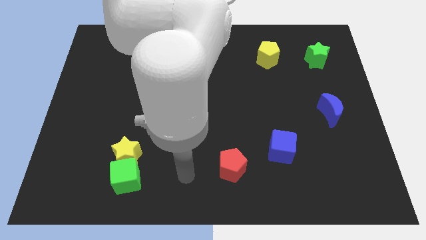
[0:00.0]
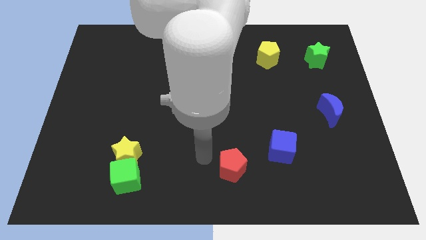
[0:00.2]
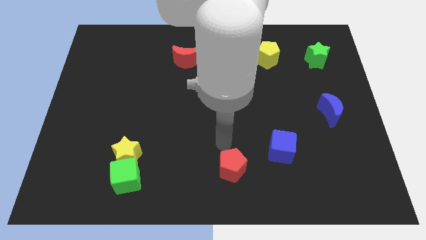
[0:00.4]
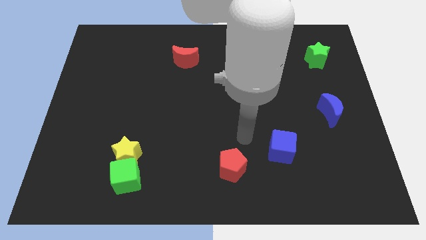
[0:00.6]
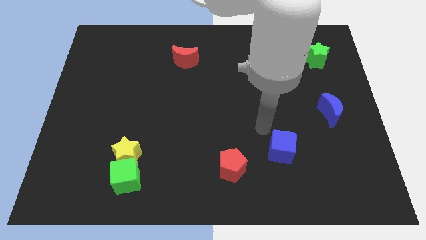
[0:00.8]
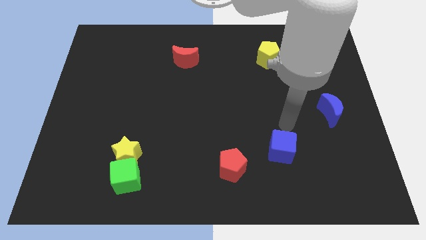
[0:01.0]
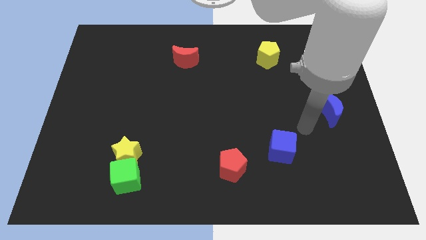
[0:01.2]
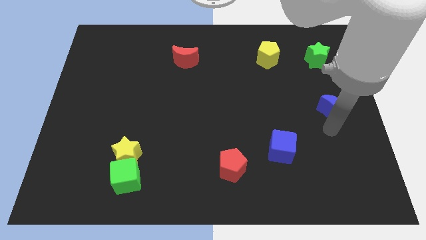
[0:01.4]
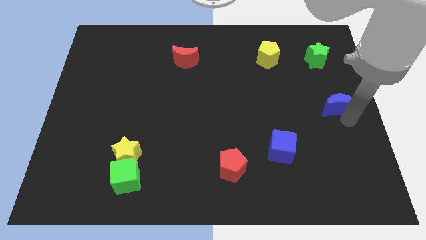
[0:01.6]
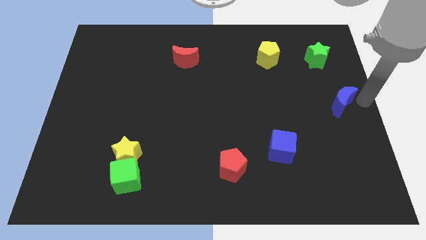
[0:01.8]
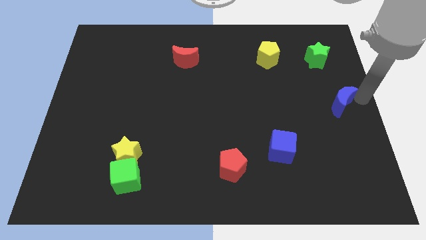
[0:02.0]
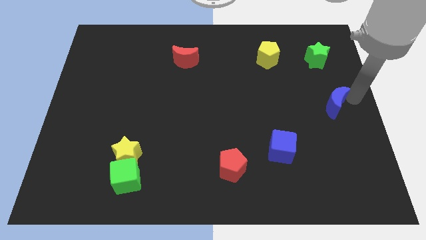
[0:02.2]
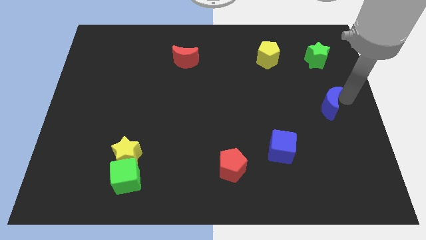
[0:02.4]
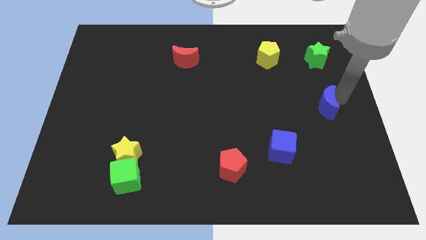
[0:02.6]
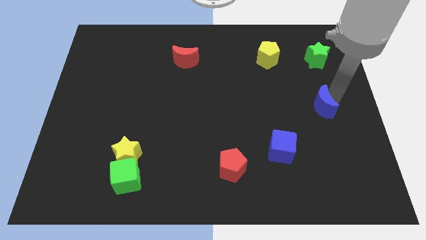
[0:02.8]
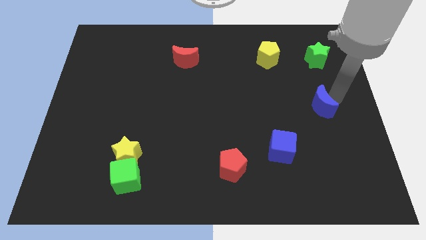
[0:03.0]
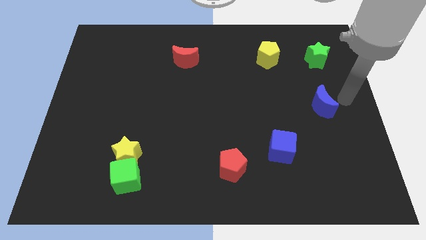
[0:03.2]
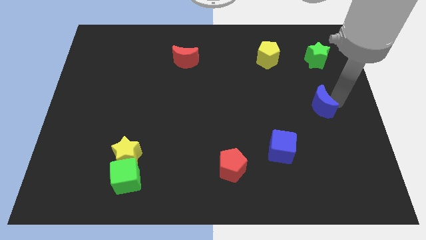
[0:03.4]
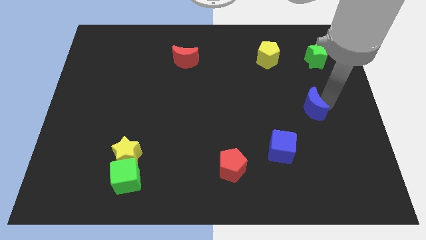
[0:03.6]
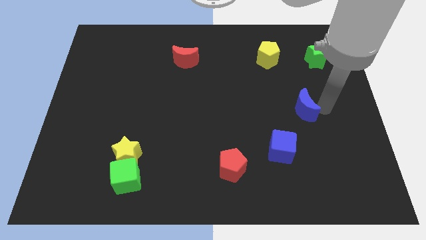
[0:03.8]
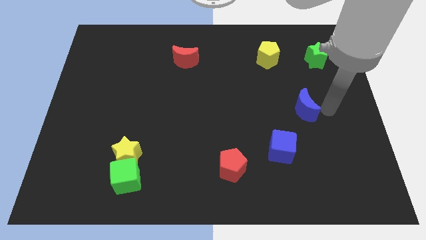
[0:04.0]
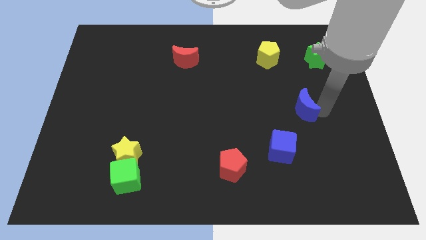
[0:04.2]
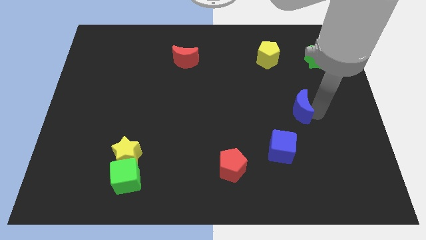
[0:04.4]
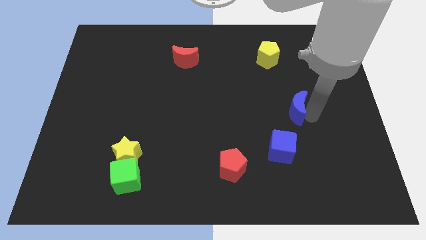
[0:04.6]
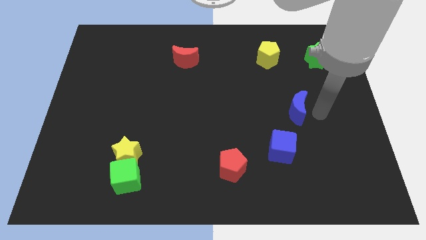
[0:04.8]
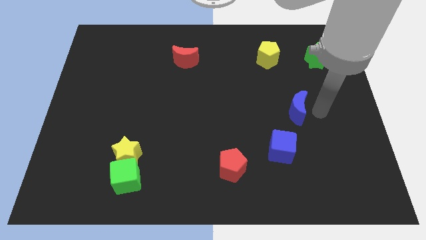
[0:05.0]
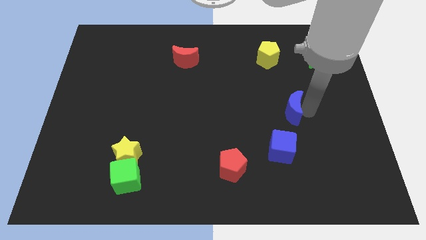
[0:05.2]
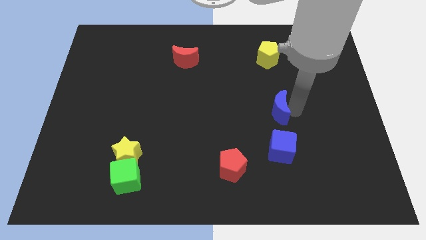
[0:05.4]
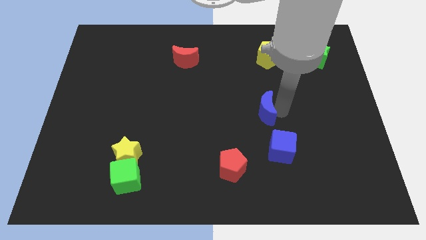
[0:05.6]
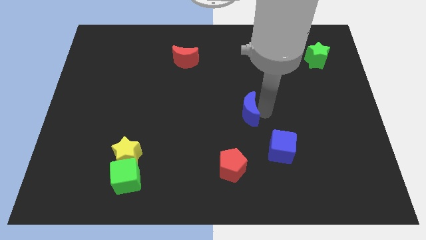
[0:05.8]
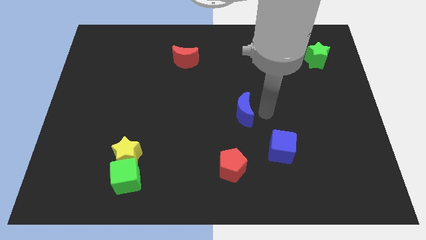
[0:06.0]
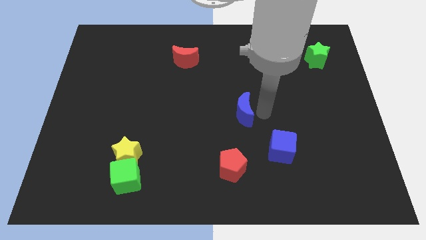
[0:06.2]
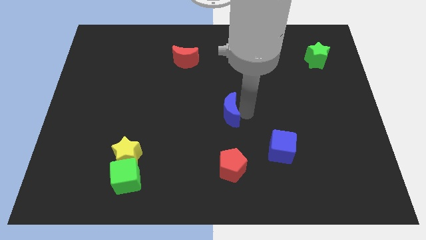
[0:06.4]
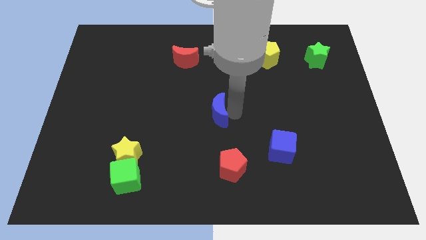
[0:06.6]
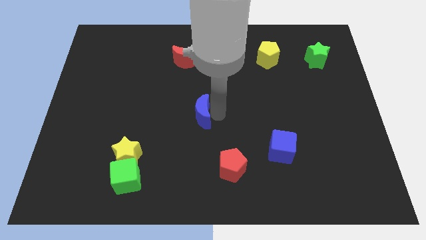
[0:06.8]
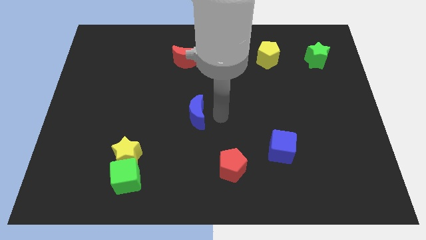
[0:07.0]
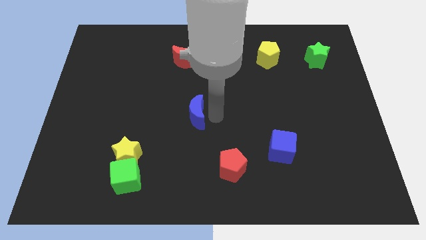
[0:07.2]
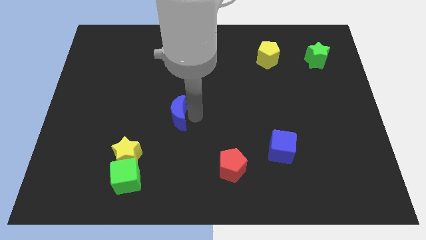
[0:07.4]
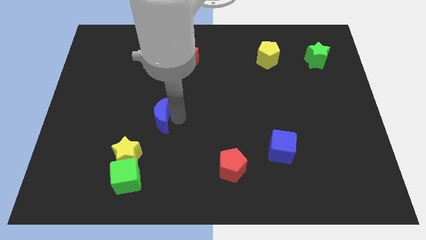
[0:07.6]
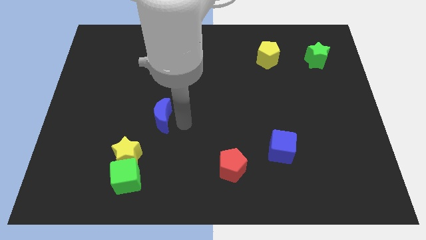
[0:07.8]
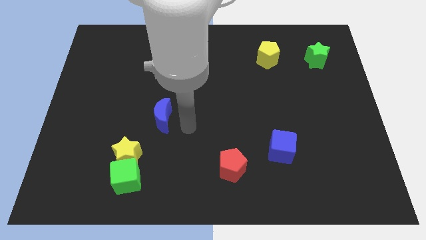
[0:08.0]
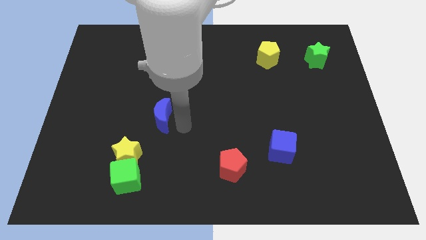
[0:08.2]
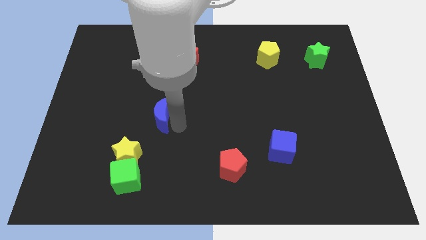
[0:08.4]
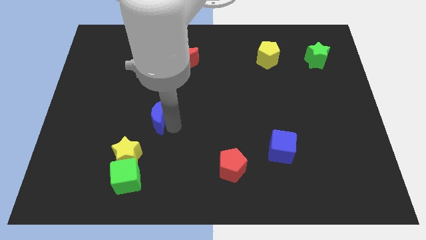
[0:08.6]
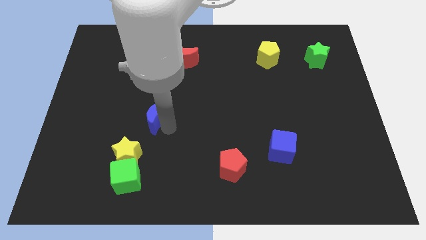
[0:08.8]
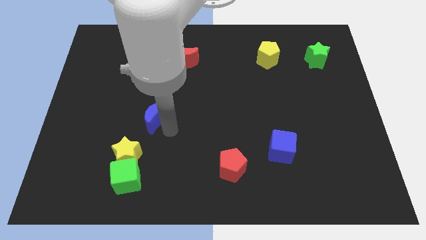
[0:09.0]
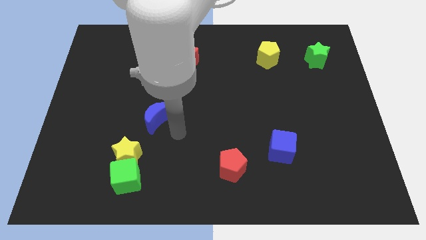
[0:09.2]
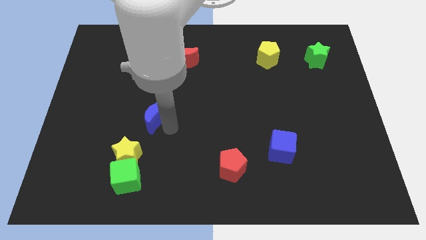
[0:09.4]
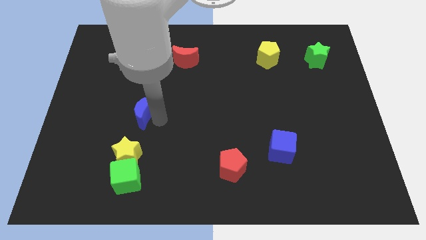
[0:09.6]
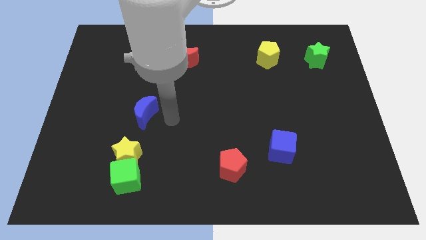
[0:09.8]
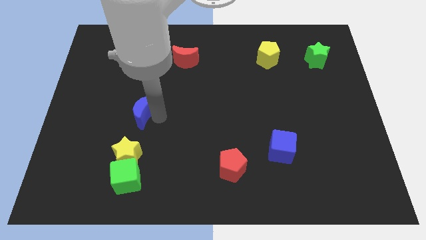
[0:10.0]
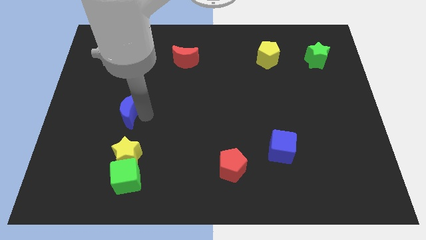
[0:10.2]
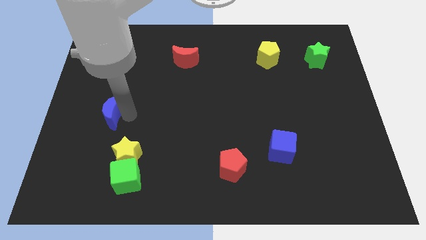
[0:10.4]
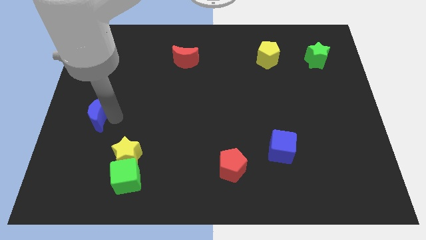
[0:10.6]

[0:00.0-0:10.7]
push the blue moon to the center left

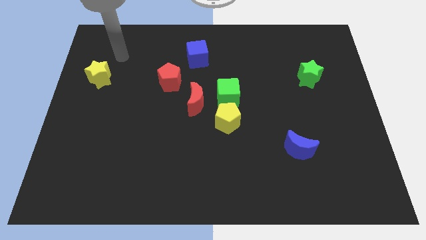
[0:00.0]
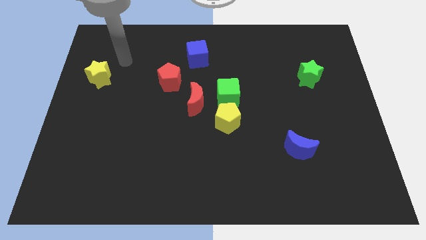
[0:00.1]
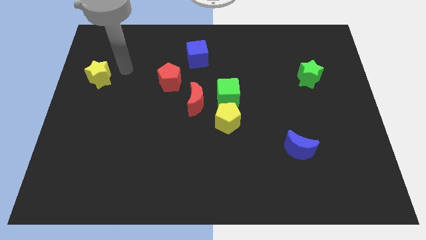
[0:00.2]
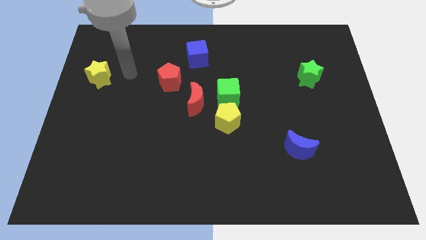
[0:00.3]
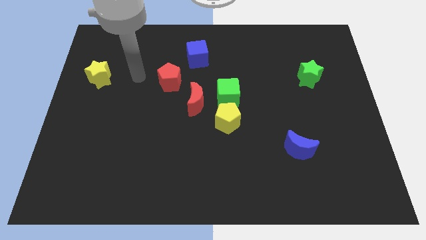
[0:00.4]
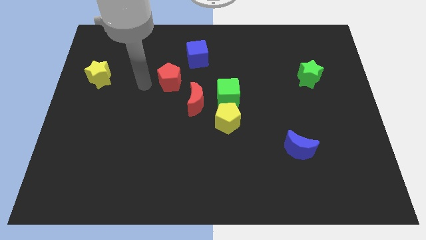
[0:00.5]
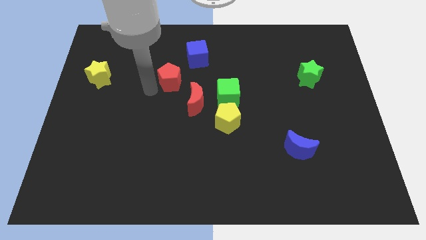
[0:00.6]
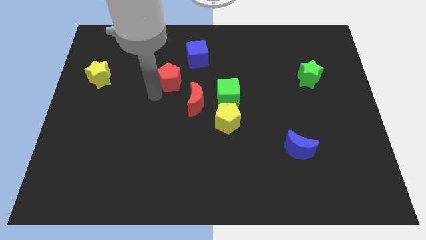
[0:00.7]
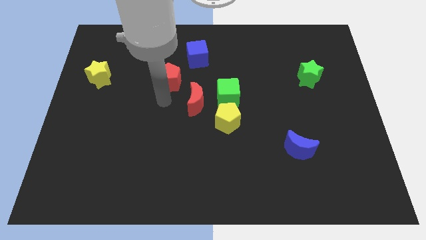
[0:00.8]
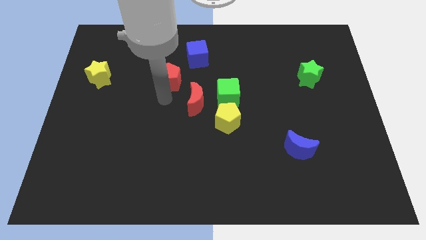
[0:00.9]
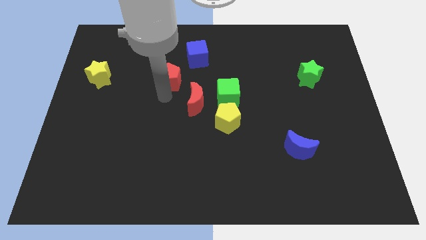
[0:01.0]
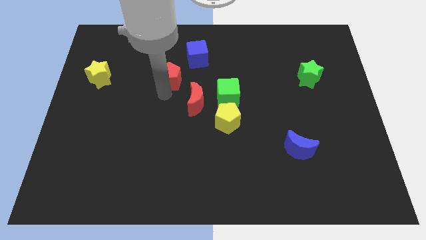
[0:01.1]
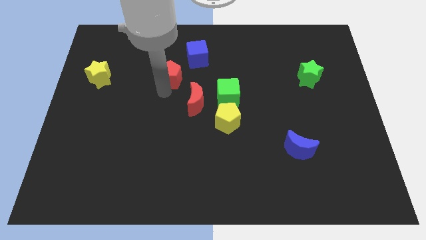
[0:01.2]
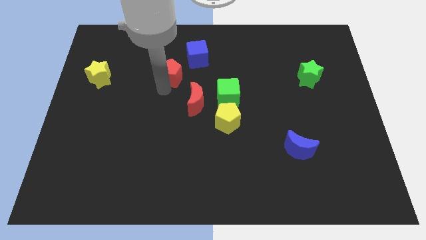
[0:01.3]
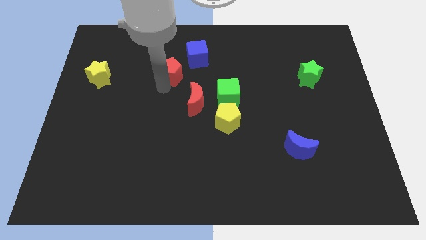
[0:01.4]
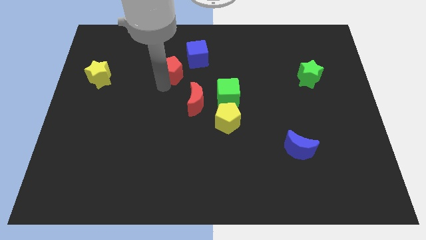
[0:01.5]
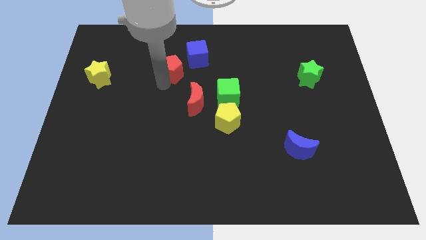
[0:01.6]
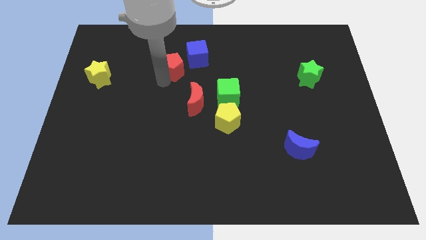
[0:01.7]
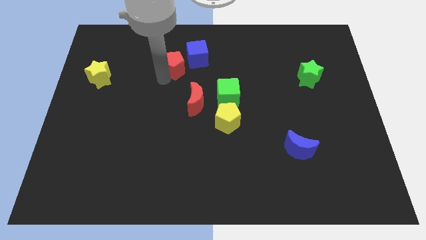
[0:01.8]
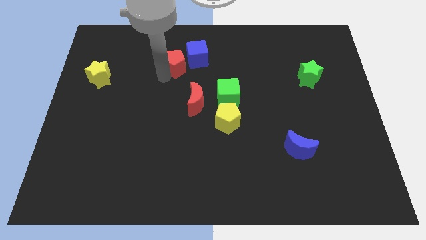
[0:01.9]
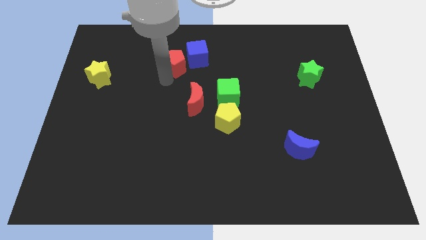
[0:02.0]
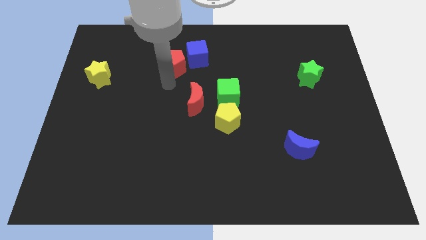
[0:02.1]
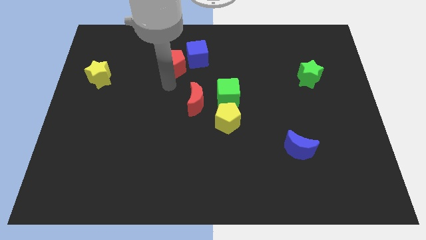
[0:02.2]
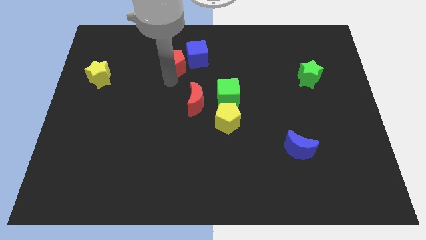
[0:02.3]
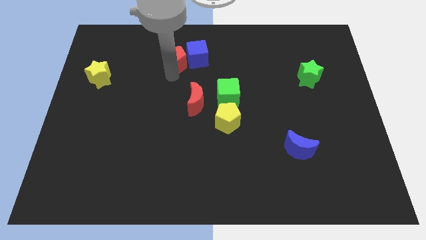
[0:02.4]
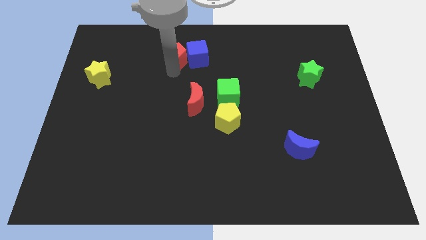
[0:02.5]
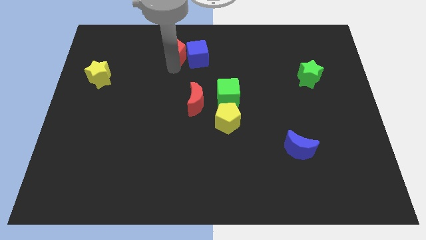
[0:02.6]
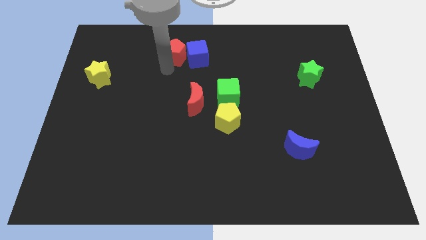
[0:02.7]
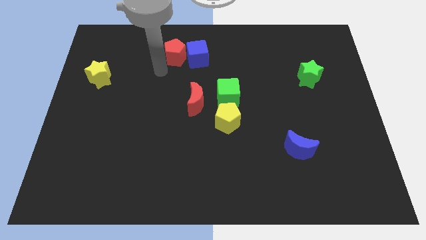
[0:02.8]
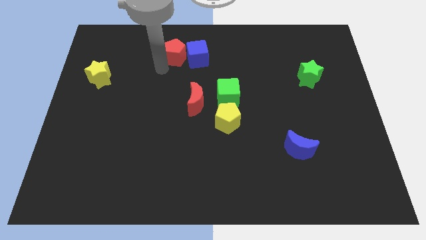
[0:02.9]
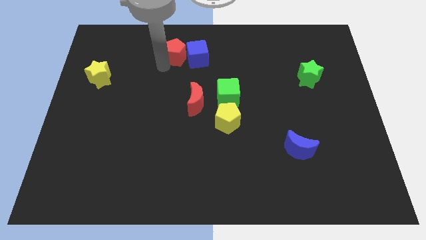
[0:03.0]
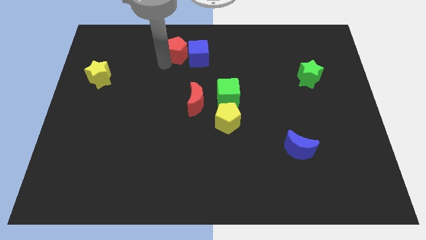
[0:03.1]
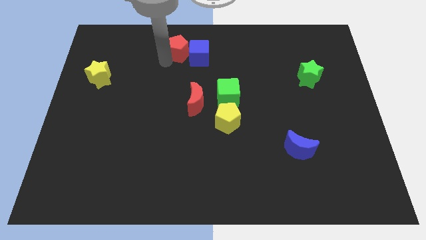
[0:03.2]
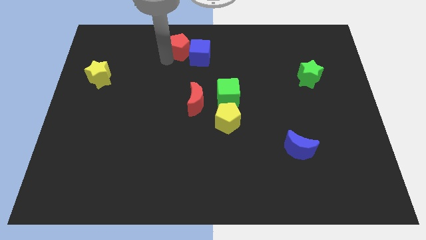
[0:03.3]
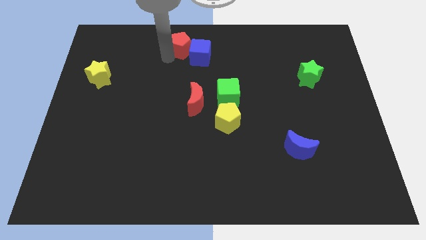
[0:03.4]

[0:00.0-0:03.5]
move the red pentagon to the top
